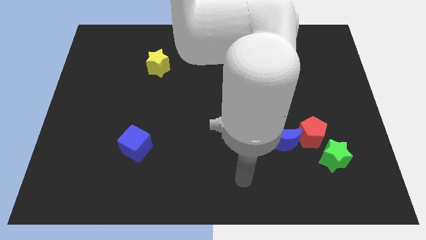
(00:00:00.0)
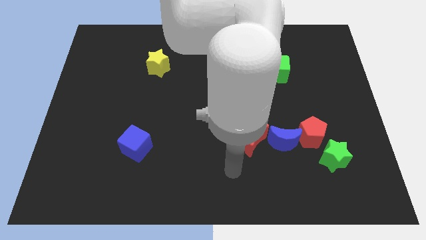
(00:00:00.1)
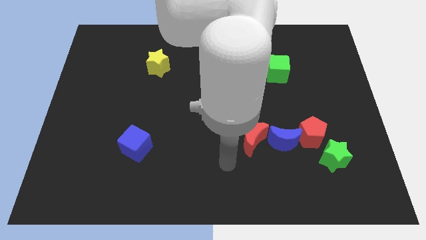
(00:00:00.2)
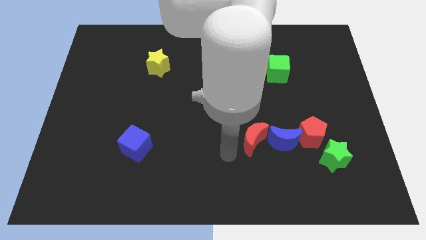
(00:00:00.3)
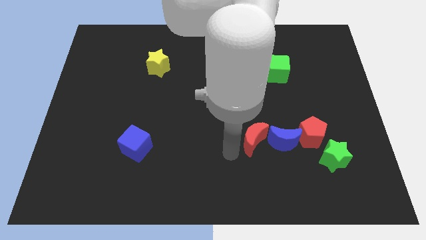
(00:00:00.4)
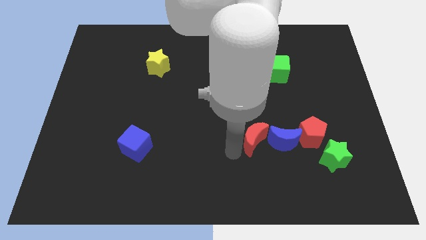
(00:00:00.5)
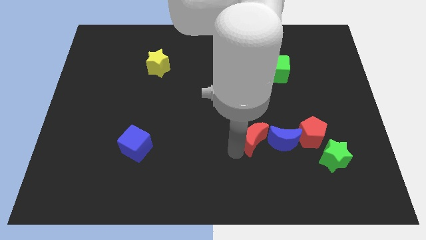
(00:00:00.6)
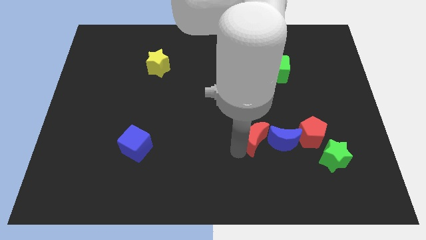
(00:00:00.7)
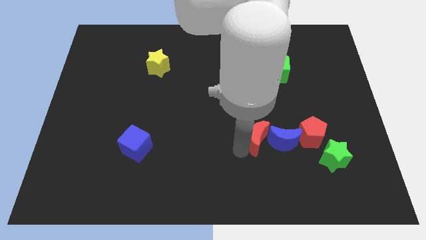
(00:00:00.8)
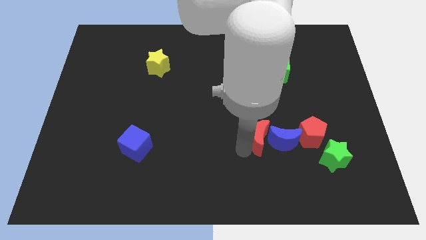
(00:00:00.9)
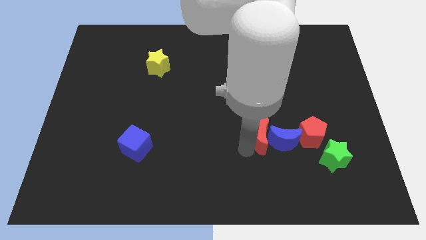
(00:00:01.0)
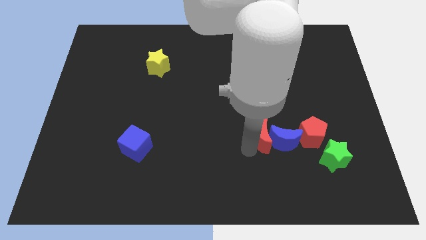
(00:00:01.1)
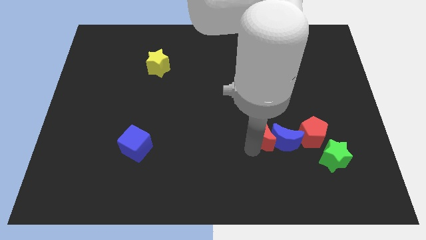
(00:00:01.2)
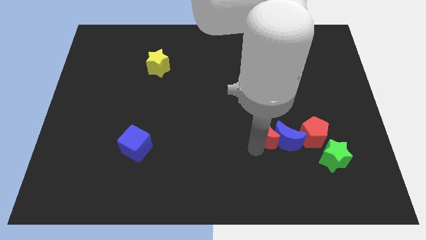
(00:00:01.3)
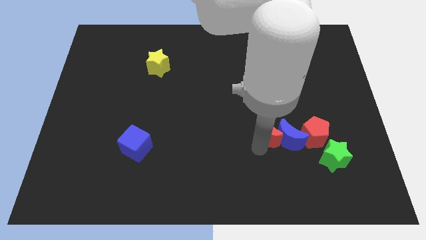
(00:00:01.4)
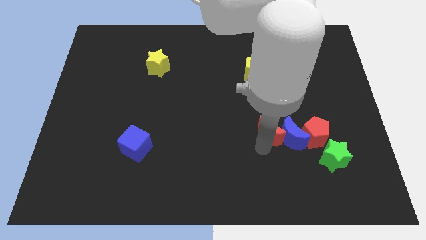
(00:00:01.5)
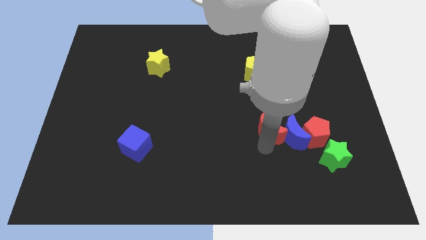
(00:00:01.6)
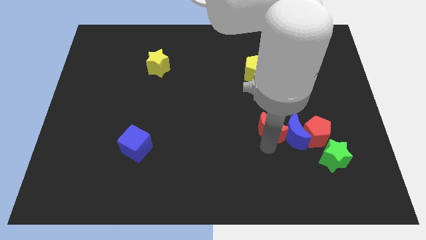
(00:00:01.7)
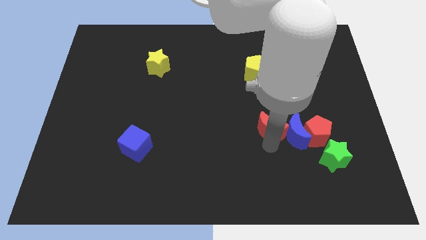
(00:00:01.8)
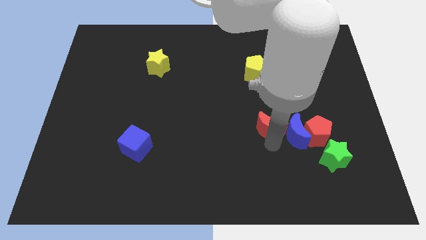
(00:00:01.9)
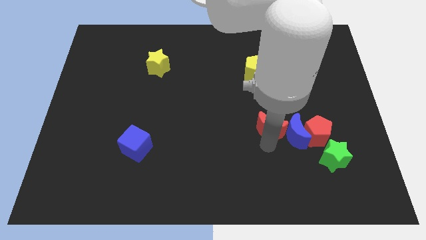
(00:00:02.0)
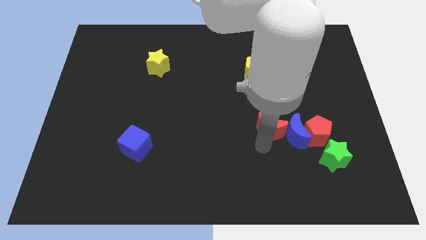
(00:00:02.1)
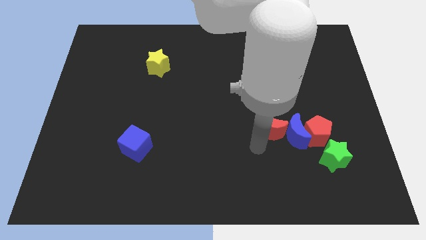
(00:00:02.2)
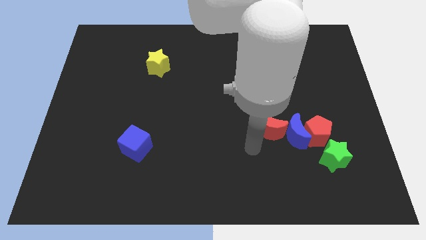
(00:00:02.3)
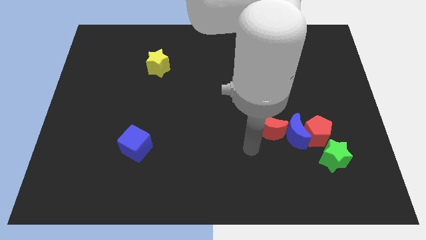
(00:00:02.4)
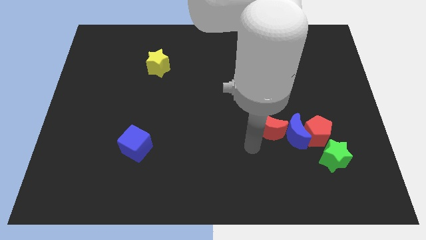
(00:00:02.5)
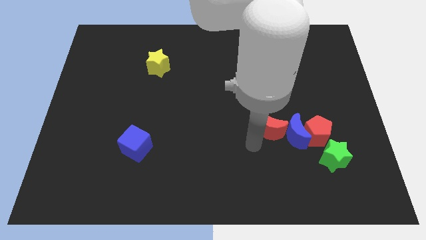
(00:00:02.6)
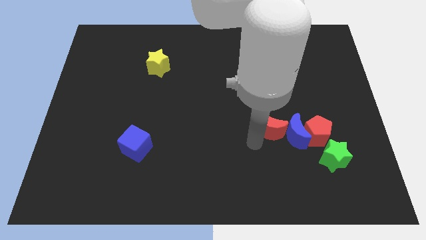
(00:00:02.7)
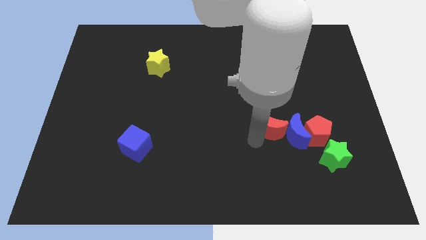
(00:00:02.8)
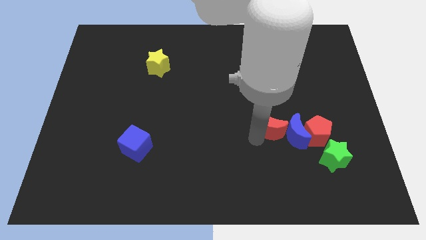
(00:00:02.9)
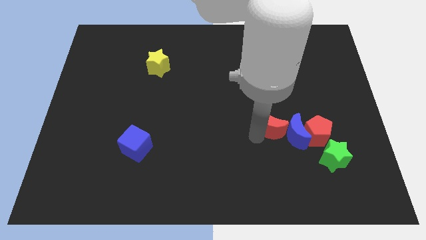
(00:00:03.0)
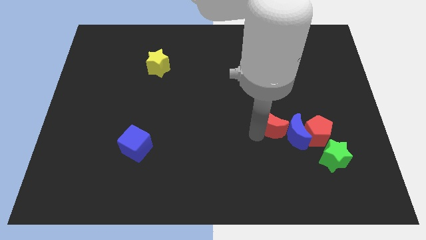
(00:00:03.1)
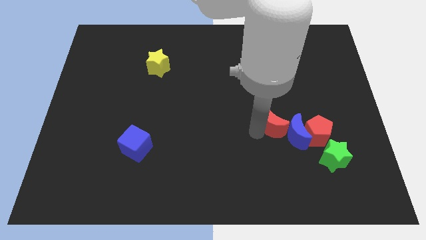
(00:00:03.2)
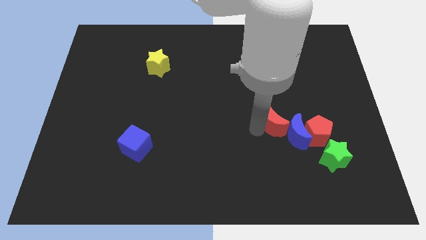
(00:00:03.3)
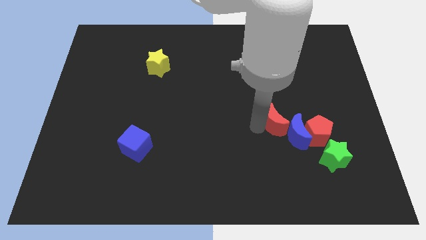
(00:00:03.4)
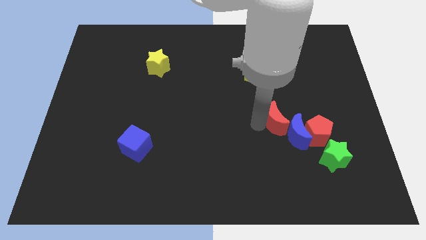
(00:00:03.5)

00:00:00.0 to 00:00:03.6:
slide the red moon a little bit upwards and to the right diagonally

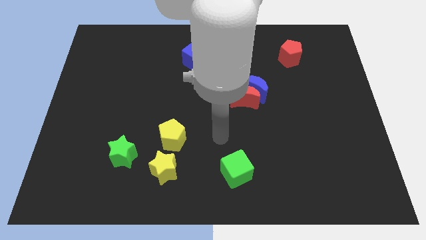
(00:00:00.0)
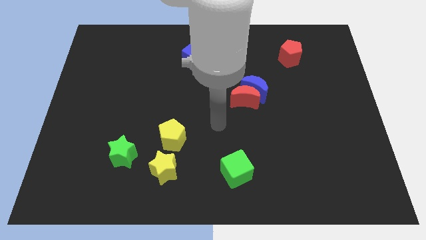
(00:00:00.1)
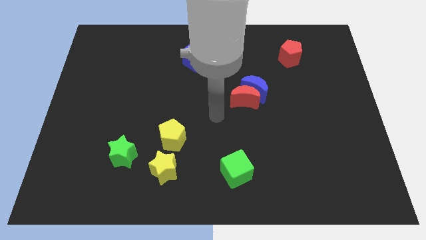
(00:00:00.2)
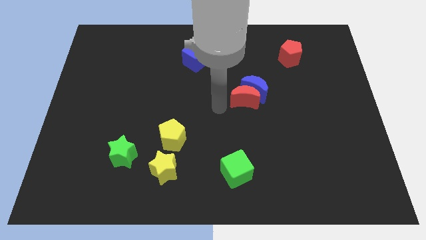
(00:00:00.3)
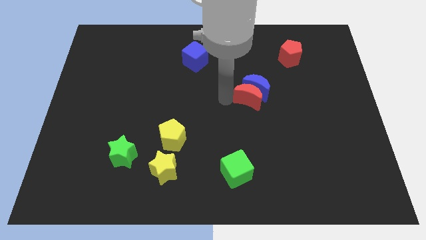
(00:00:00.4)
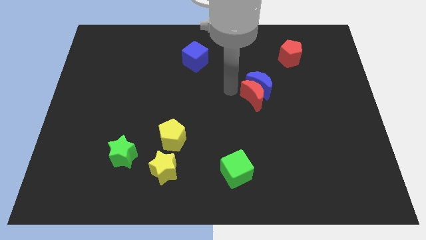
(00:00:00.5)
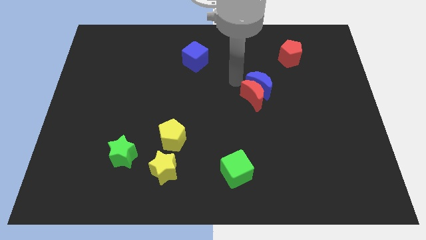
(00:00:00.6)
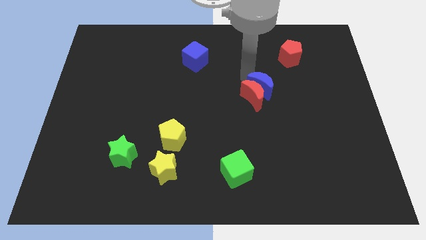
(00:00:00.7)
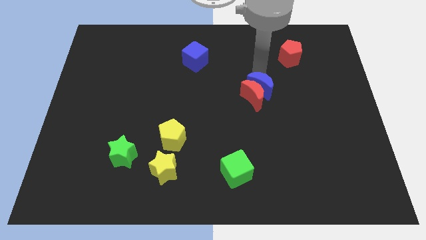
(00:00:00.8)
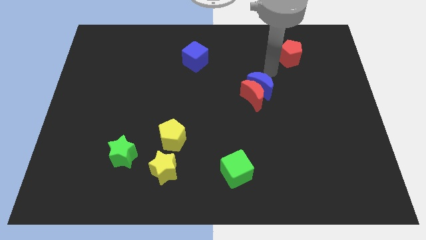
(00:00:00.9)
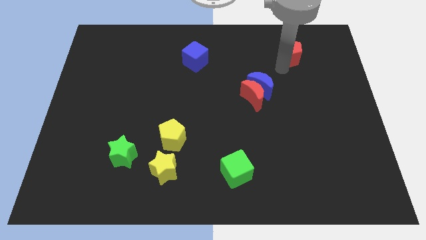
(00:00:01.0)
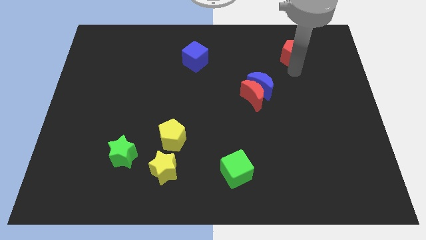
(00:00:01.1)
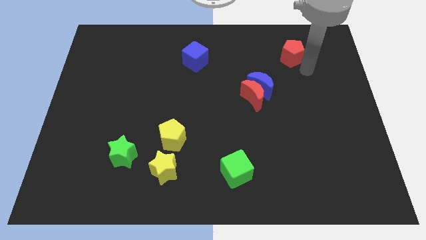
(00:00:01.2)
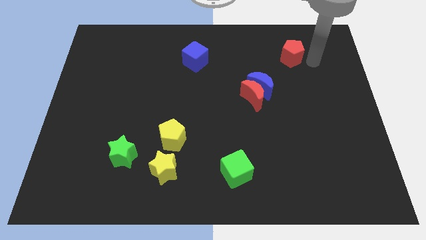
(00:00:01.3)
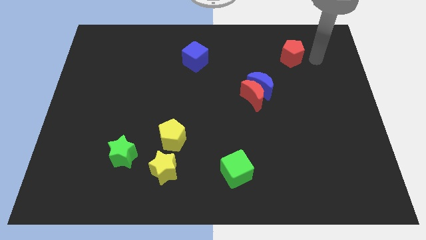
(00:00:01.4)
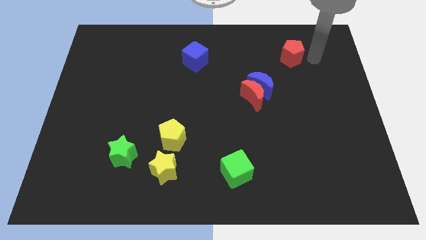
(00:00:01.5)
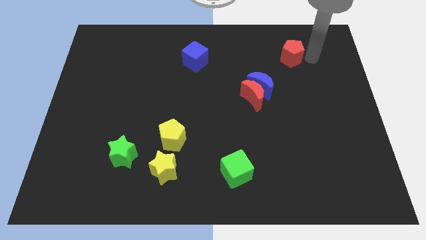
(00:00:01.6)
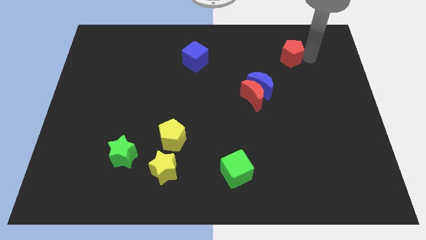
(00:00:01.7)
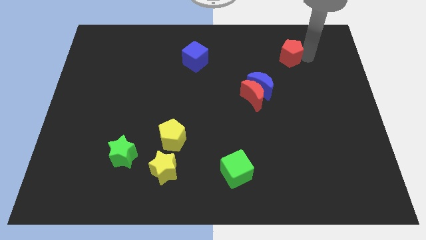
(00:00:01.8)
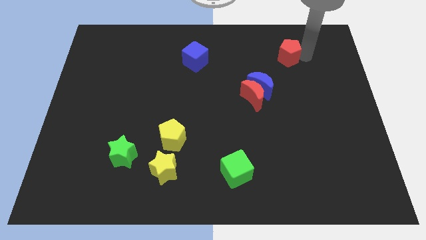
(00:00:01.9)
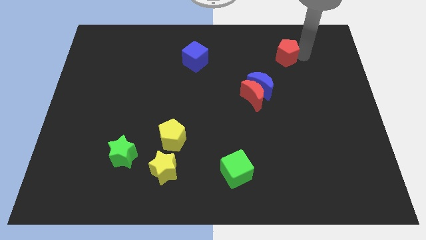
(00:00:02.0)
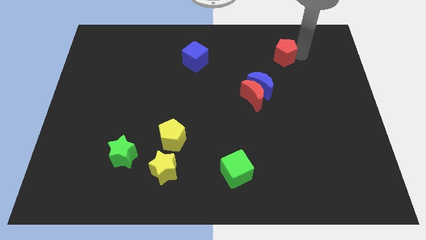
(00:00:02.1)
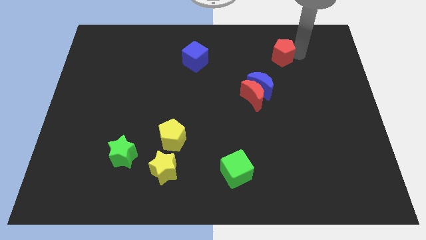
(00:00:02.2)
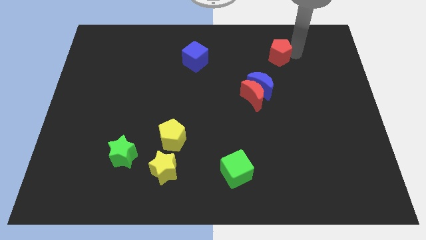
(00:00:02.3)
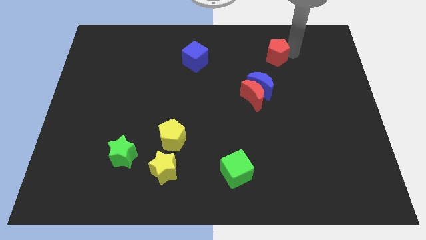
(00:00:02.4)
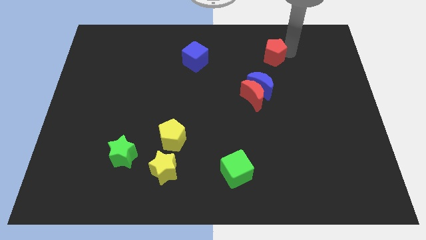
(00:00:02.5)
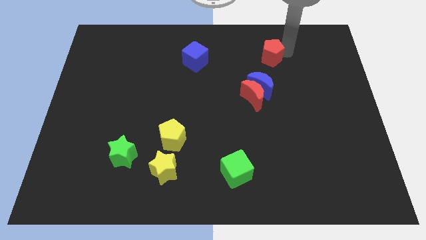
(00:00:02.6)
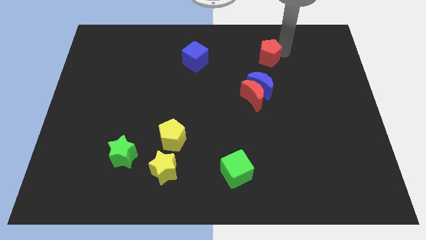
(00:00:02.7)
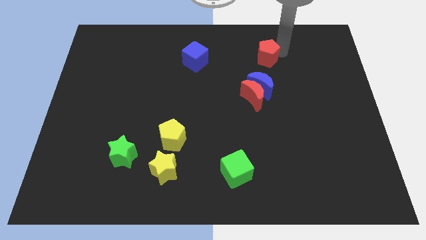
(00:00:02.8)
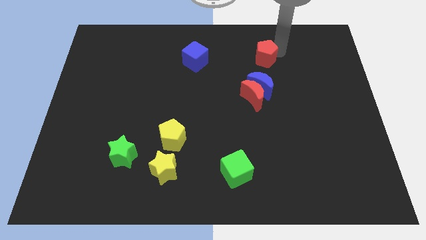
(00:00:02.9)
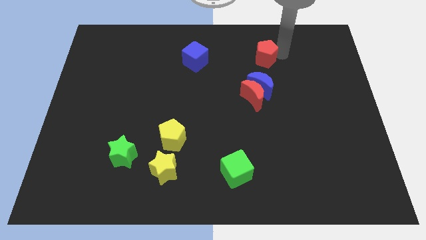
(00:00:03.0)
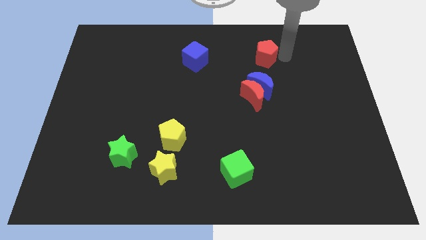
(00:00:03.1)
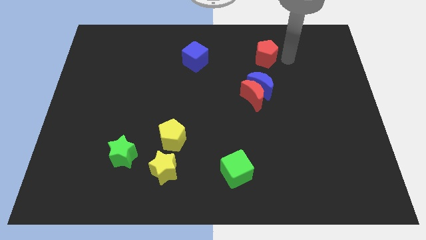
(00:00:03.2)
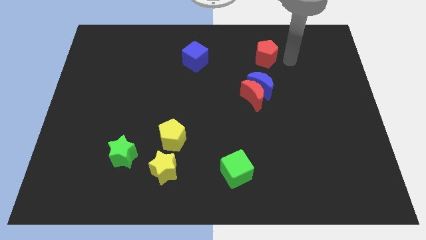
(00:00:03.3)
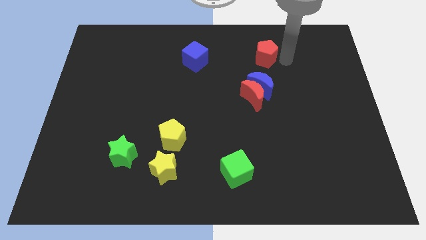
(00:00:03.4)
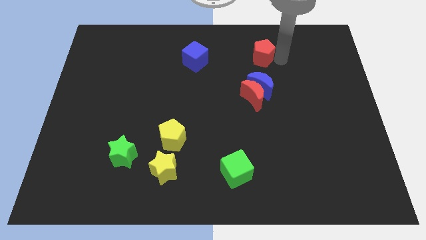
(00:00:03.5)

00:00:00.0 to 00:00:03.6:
move the red pentagon left slightly

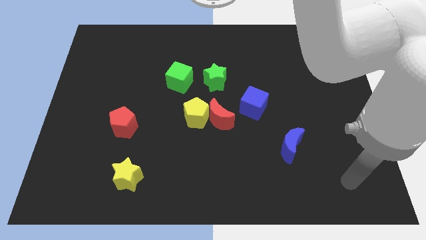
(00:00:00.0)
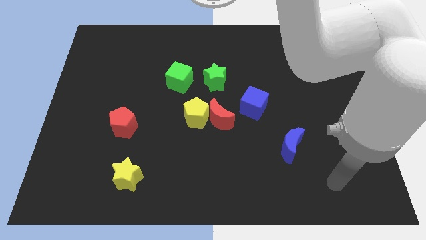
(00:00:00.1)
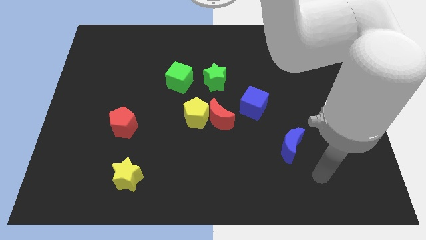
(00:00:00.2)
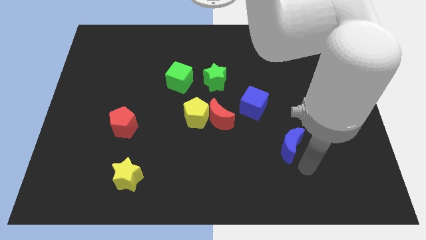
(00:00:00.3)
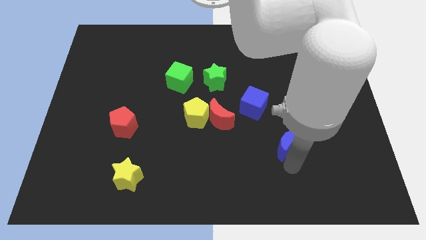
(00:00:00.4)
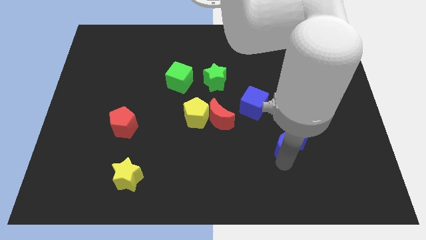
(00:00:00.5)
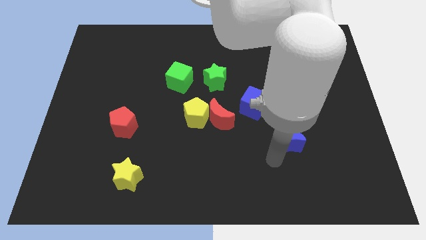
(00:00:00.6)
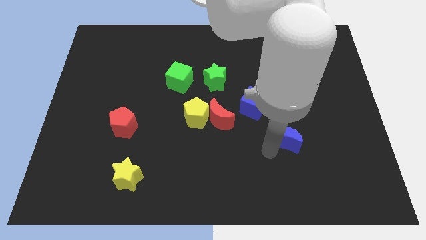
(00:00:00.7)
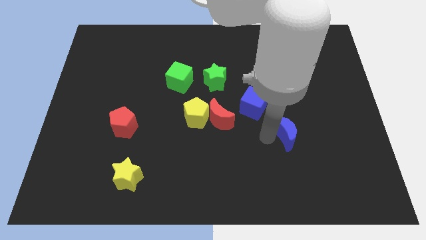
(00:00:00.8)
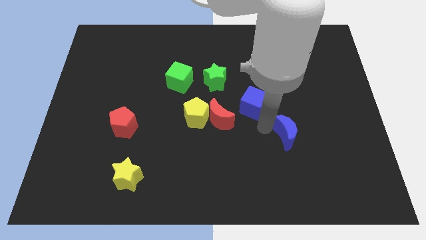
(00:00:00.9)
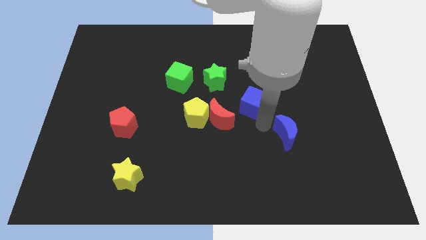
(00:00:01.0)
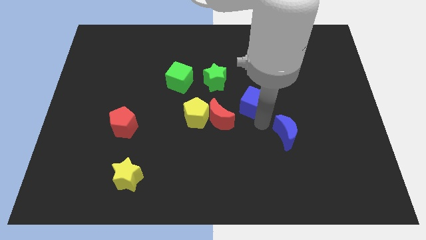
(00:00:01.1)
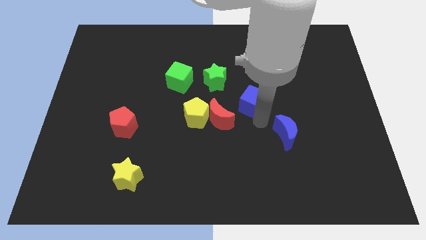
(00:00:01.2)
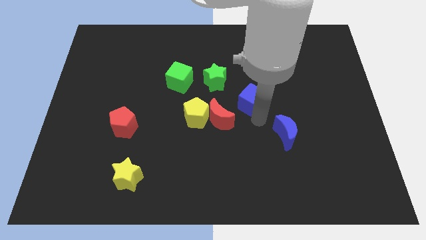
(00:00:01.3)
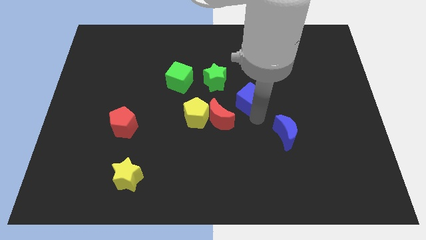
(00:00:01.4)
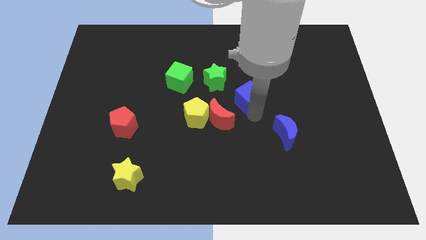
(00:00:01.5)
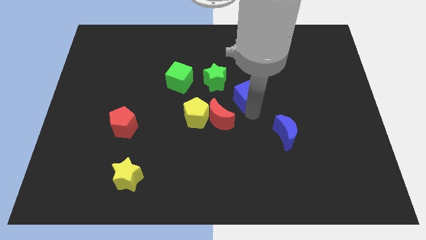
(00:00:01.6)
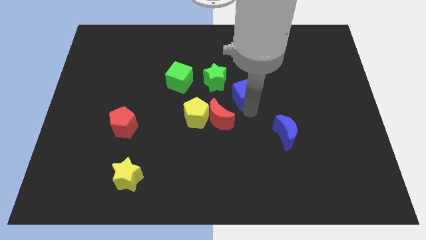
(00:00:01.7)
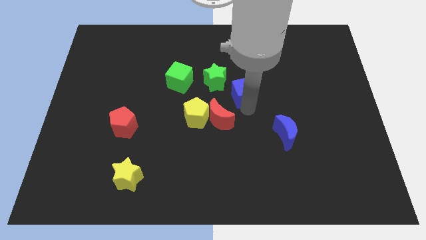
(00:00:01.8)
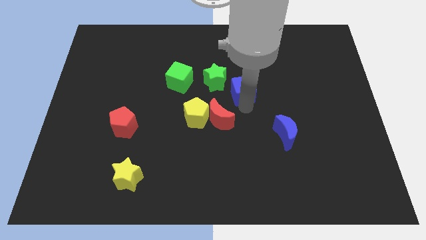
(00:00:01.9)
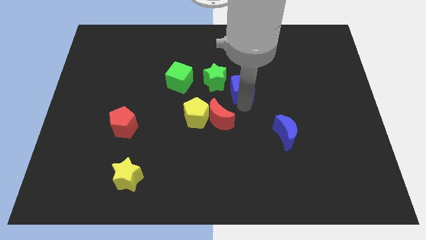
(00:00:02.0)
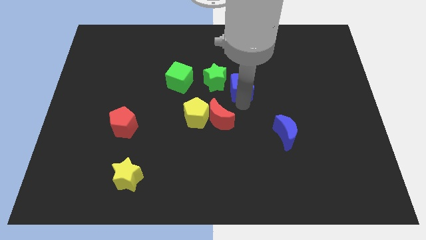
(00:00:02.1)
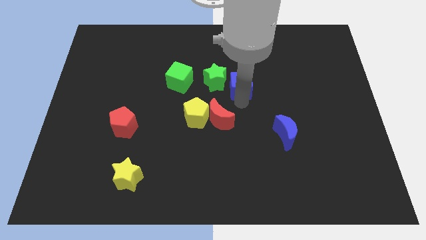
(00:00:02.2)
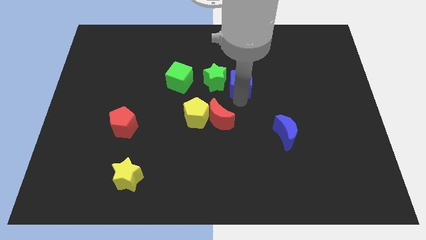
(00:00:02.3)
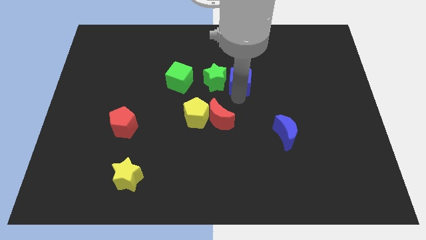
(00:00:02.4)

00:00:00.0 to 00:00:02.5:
slightly slide the blue cube upwards and to the left diagonally
